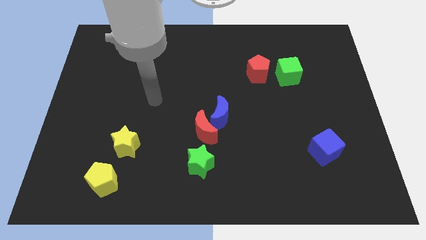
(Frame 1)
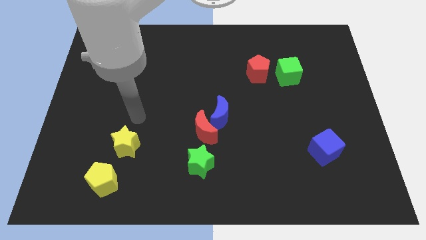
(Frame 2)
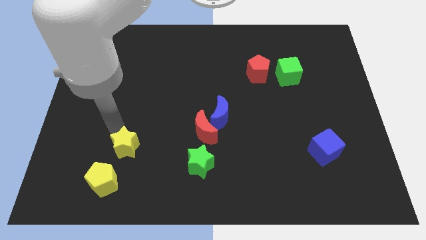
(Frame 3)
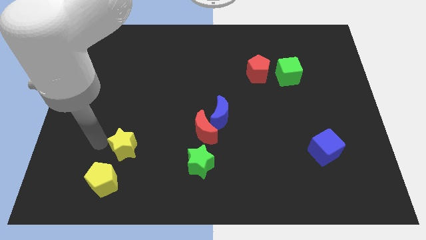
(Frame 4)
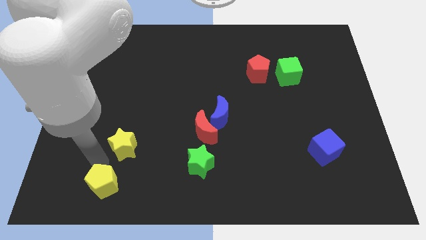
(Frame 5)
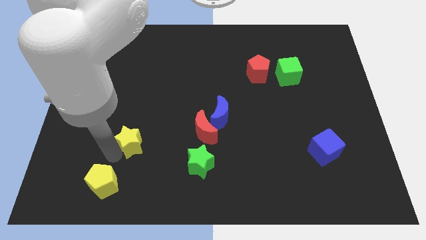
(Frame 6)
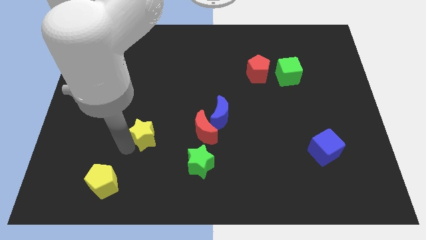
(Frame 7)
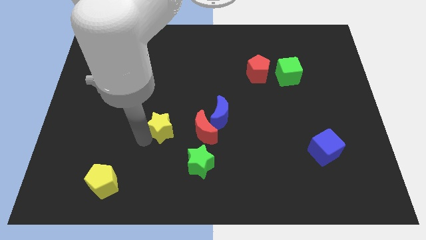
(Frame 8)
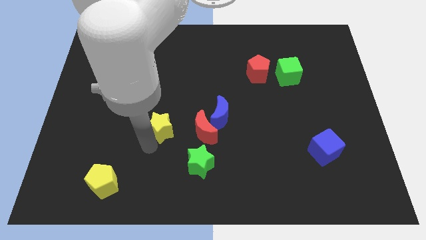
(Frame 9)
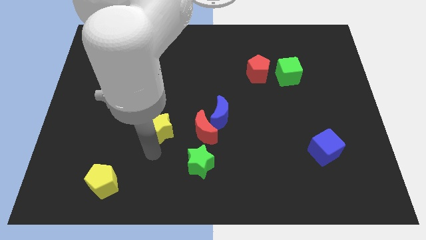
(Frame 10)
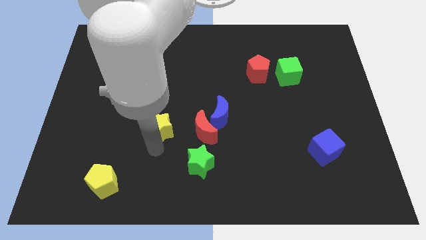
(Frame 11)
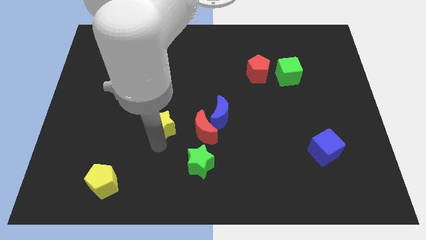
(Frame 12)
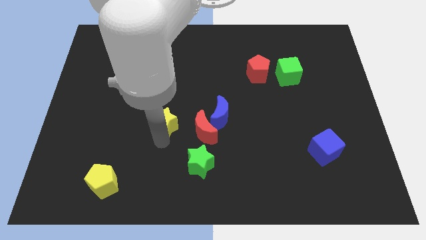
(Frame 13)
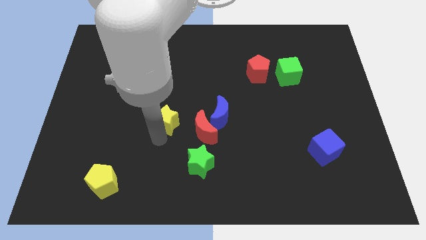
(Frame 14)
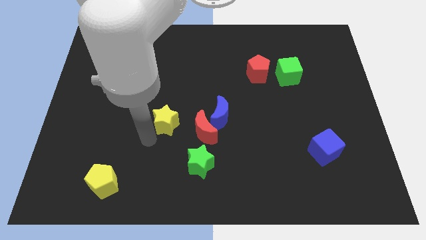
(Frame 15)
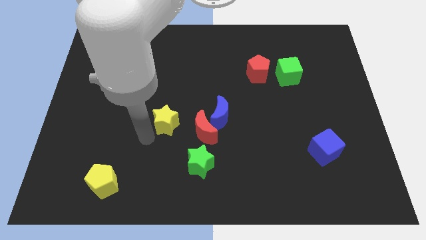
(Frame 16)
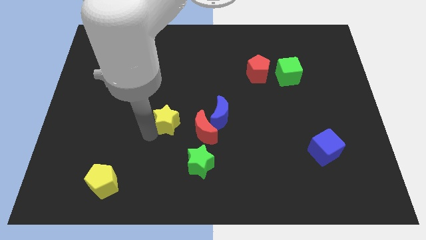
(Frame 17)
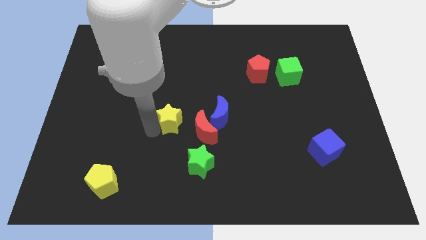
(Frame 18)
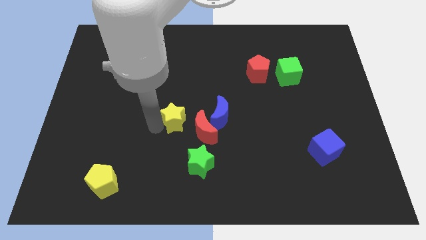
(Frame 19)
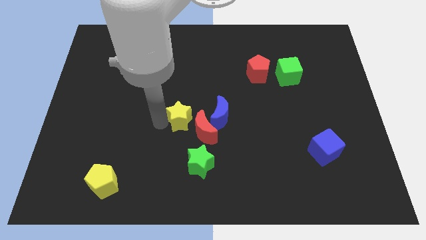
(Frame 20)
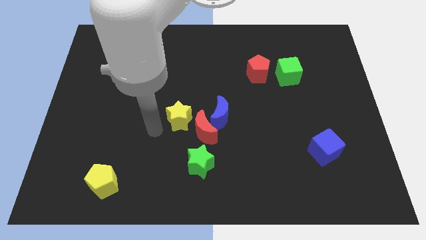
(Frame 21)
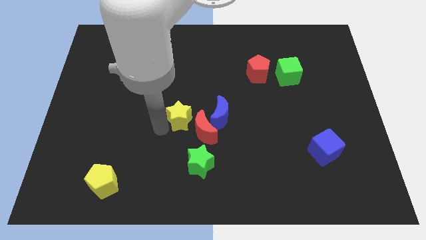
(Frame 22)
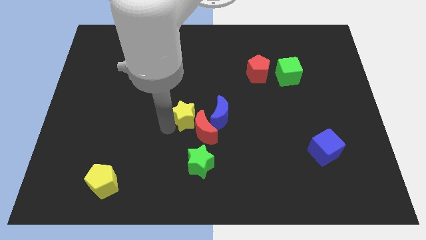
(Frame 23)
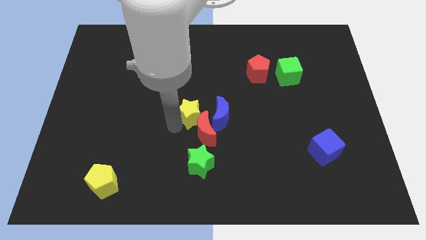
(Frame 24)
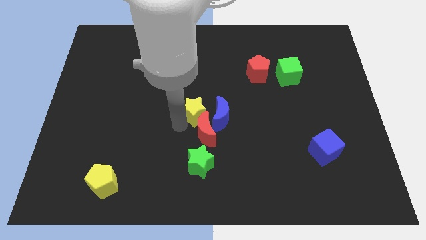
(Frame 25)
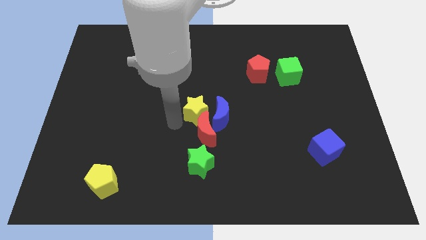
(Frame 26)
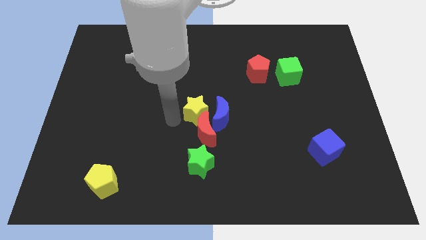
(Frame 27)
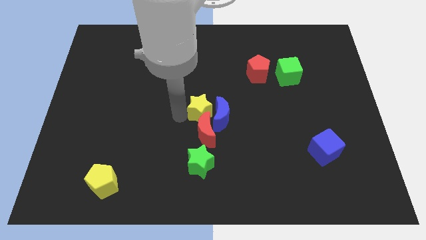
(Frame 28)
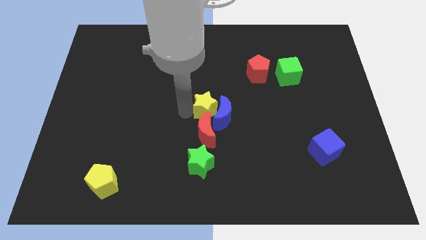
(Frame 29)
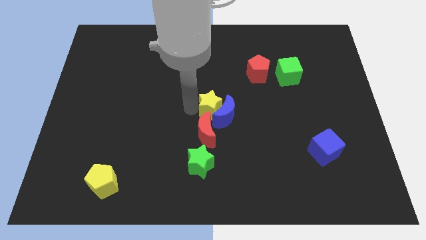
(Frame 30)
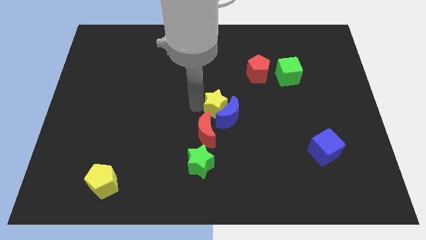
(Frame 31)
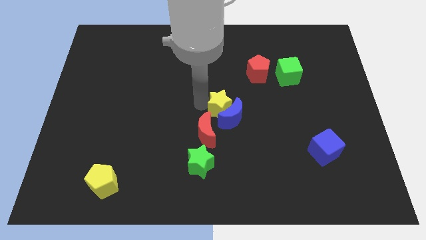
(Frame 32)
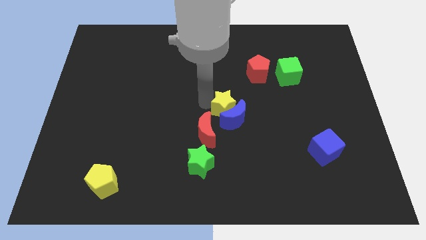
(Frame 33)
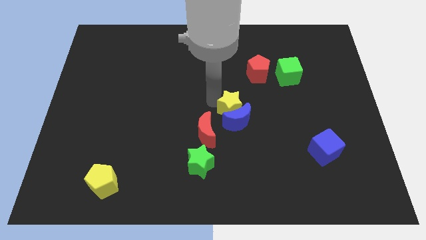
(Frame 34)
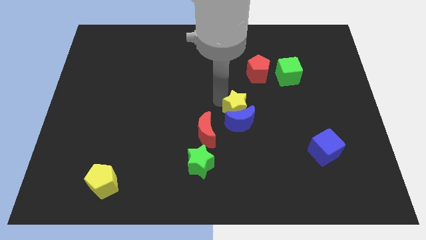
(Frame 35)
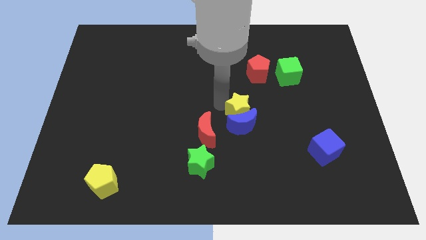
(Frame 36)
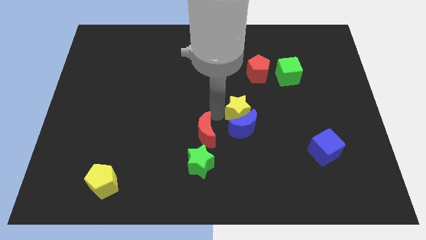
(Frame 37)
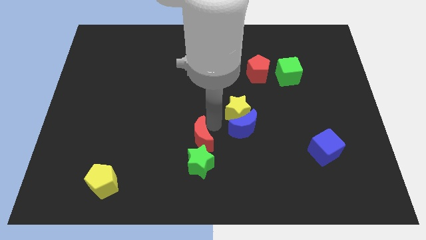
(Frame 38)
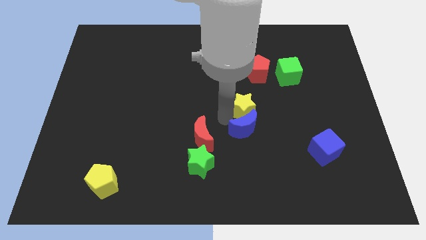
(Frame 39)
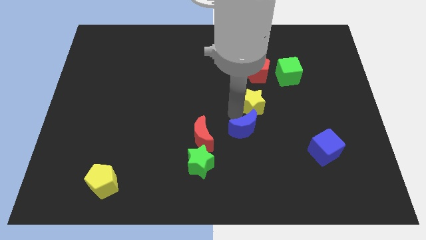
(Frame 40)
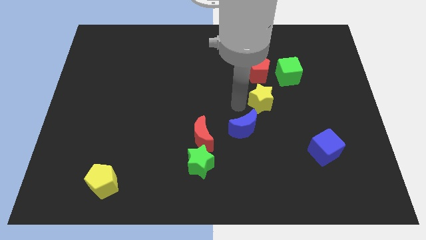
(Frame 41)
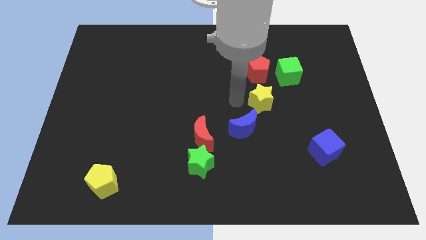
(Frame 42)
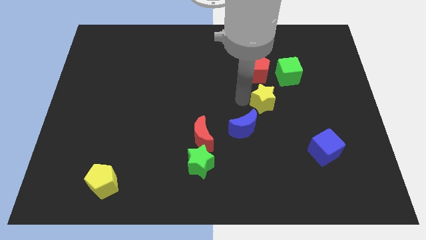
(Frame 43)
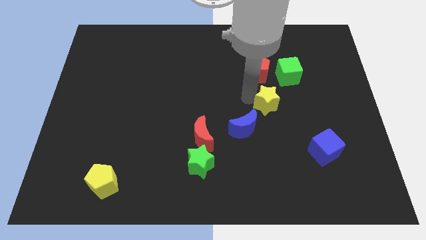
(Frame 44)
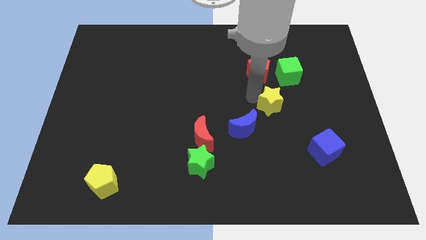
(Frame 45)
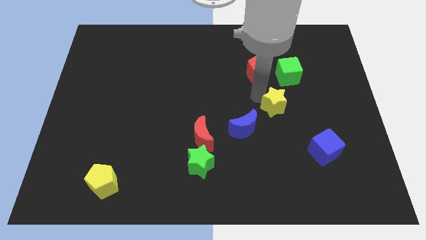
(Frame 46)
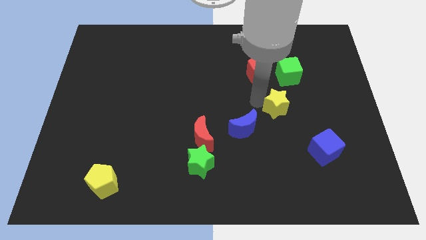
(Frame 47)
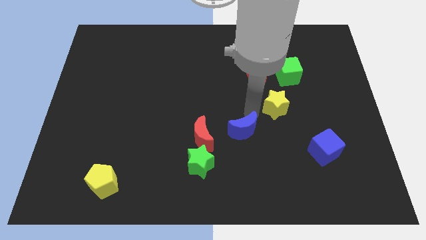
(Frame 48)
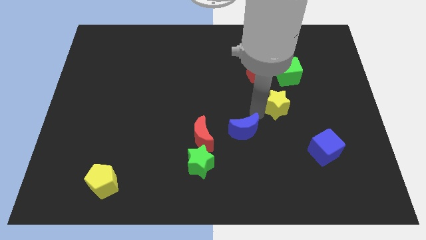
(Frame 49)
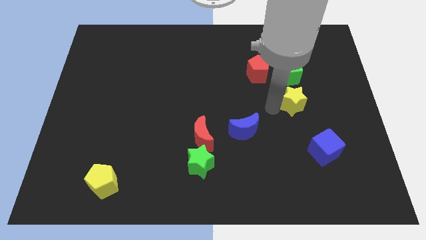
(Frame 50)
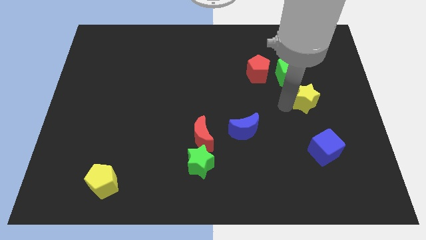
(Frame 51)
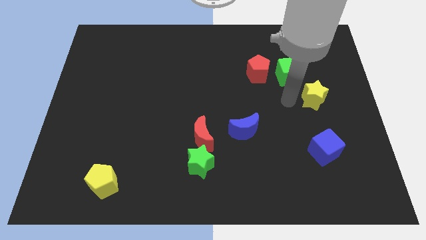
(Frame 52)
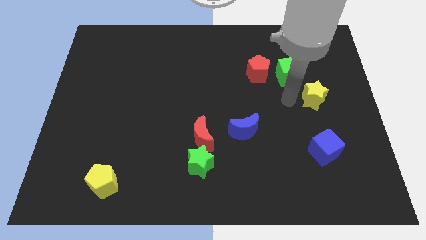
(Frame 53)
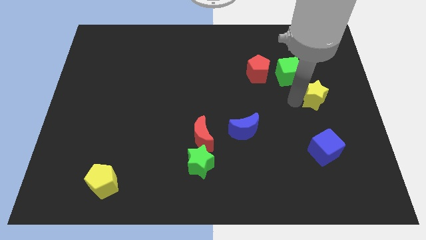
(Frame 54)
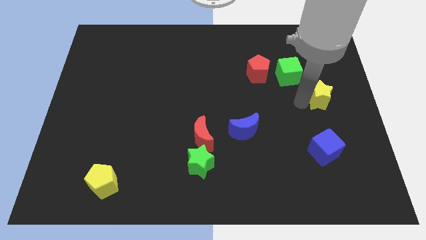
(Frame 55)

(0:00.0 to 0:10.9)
push the yellow star to the right side
